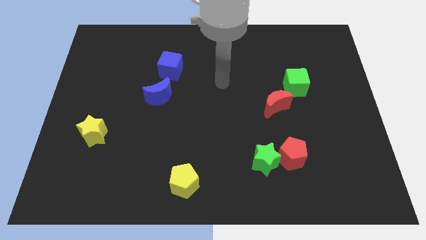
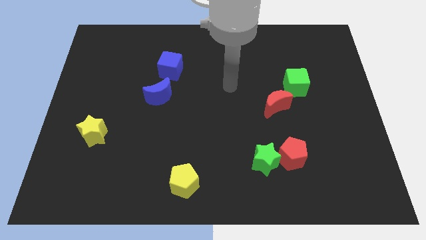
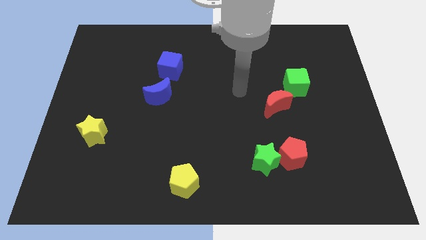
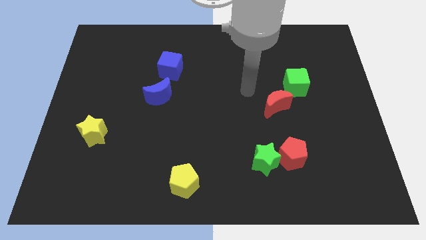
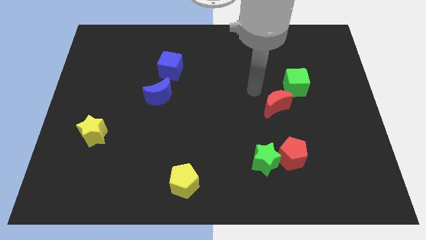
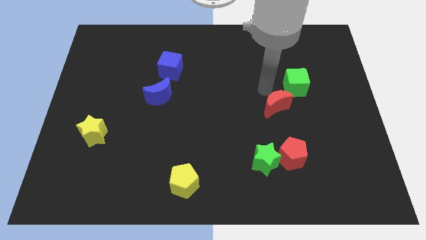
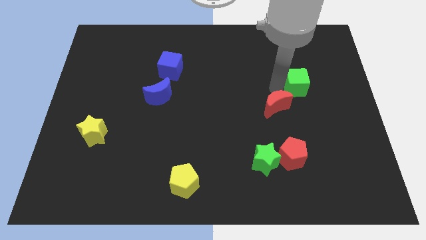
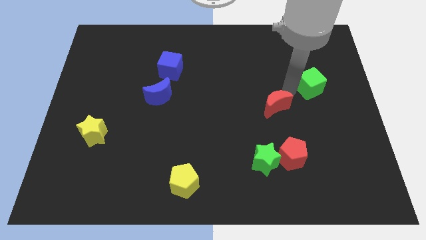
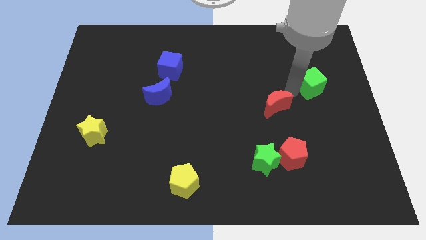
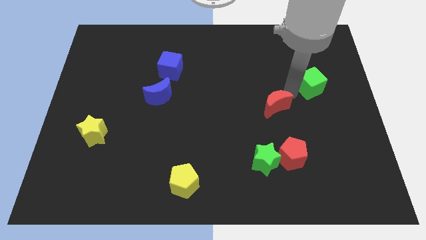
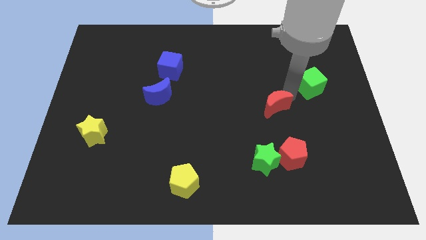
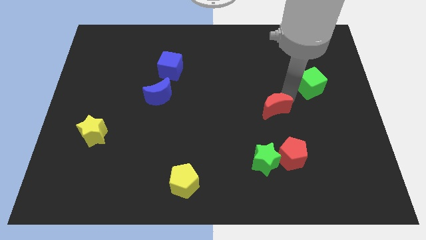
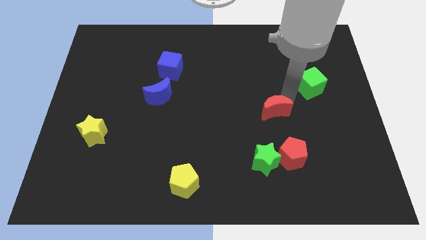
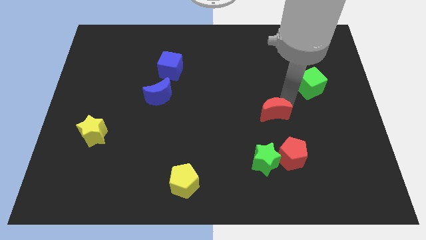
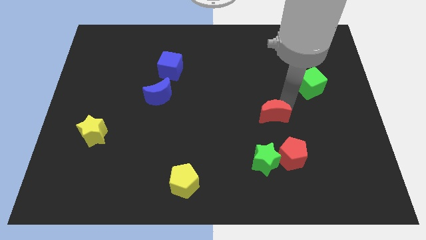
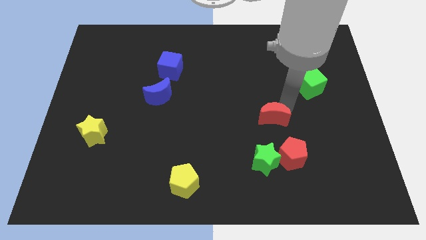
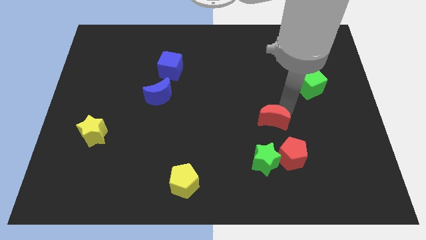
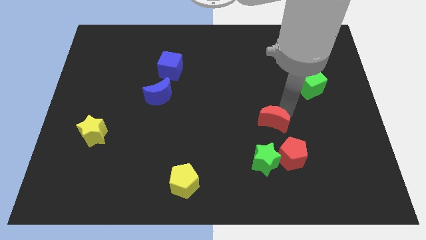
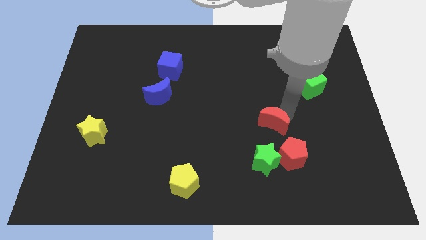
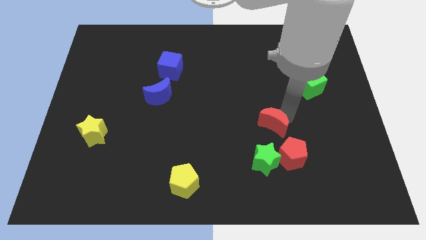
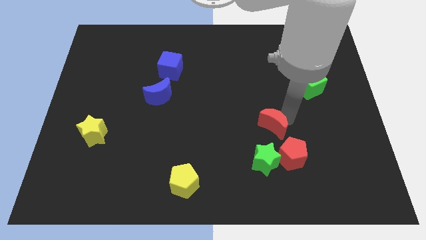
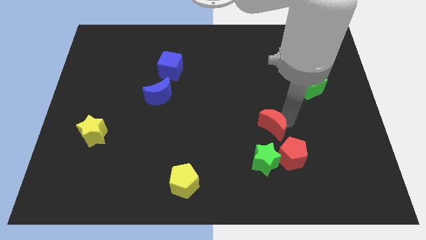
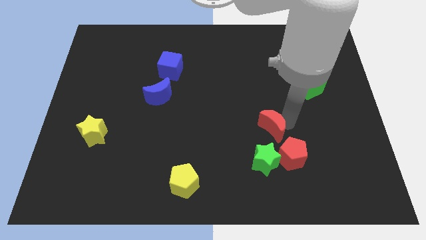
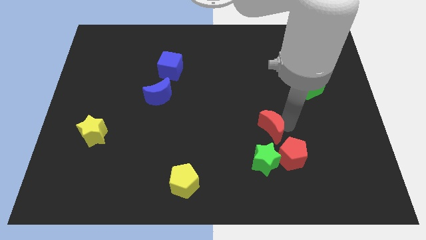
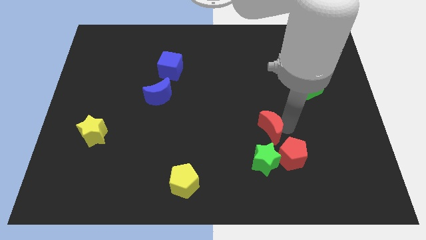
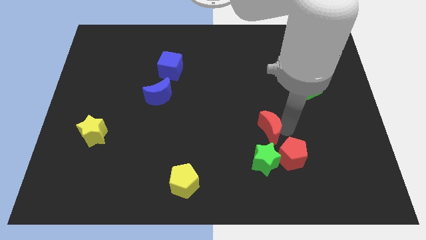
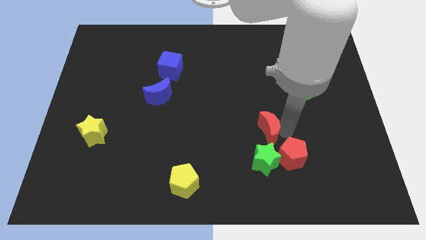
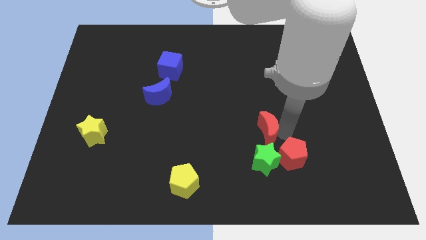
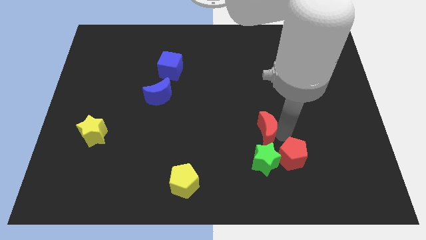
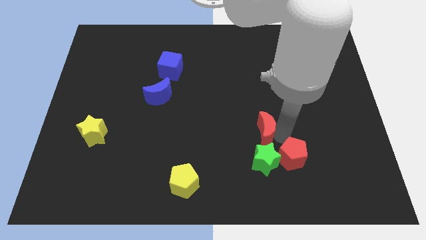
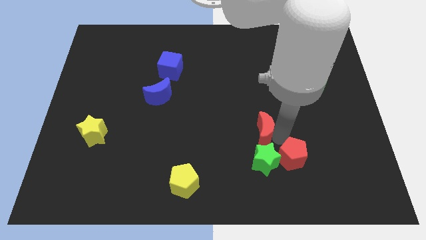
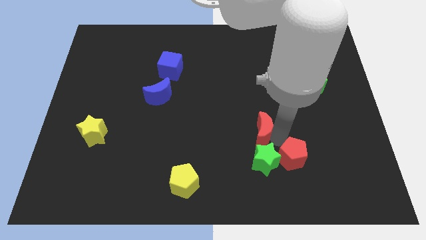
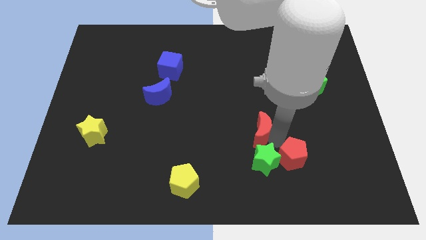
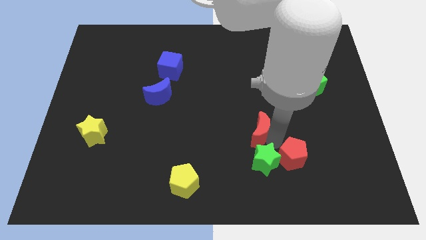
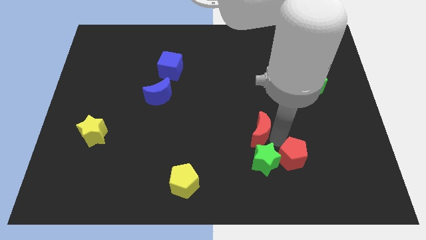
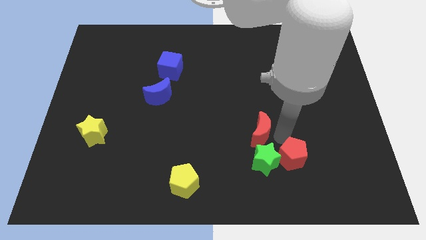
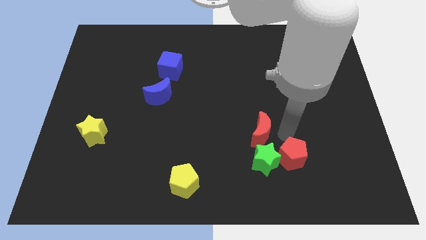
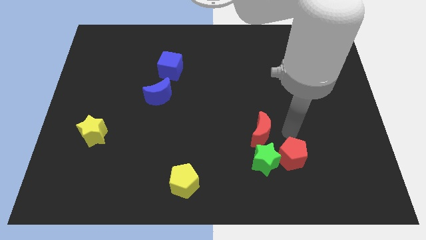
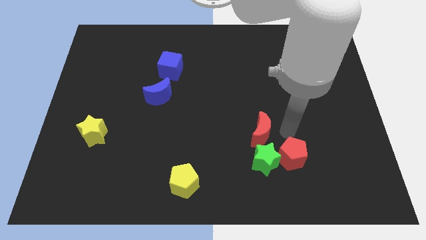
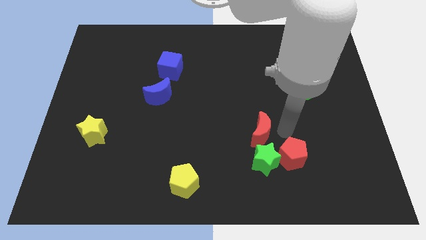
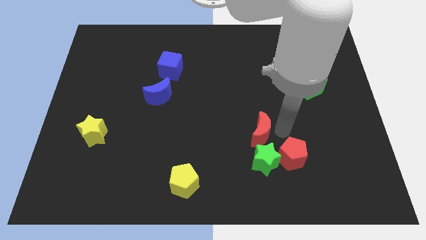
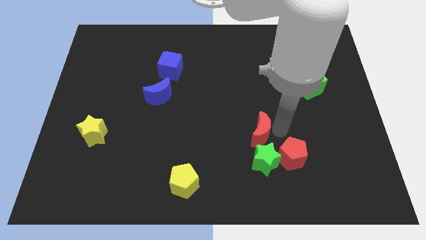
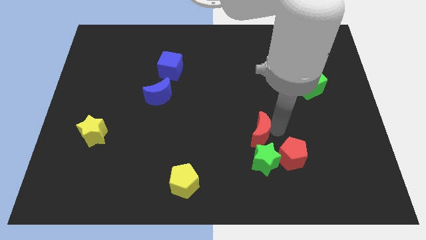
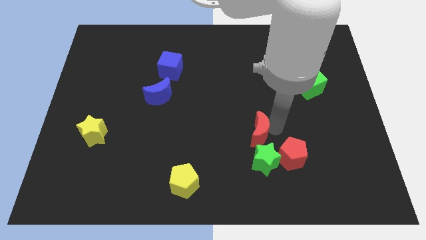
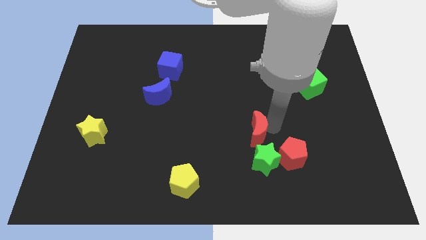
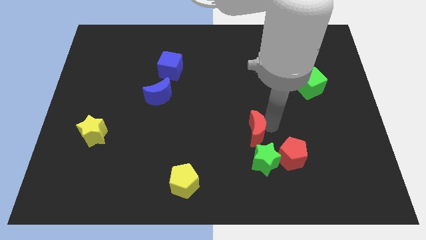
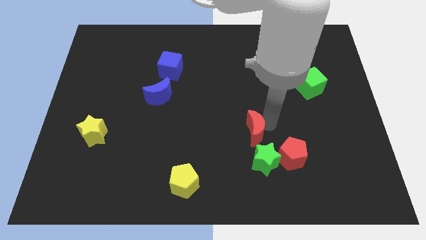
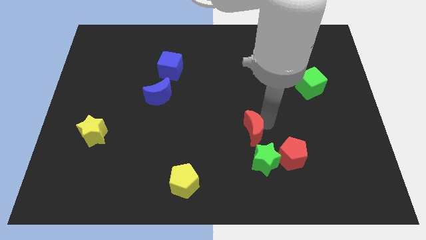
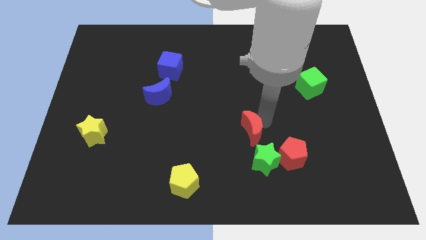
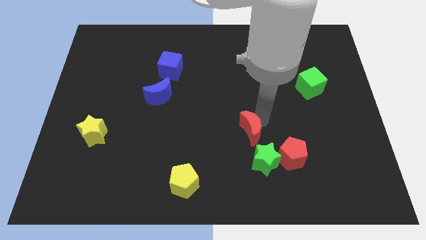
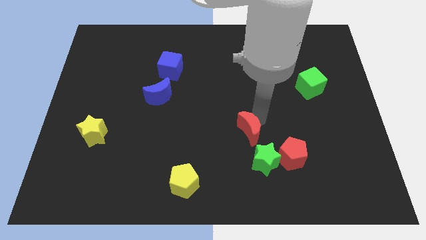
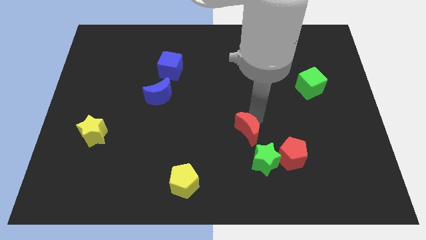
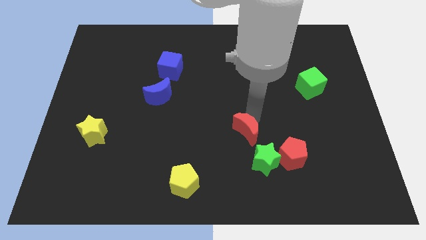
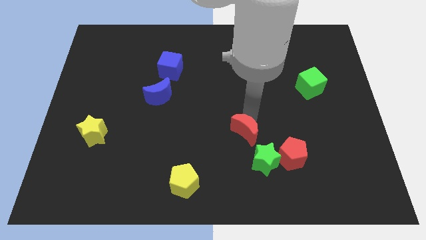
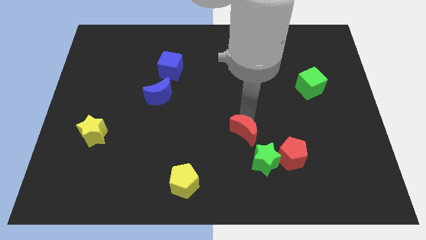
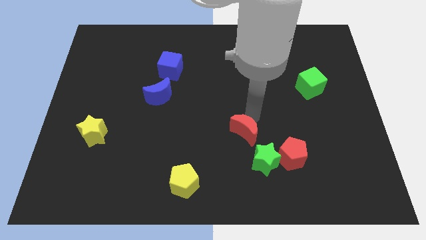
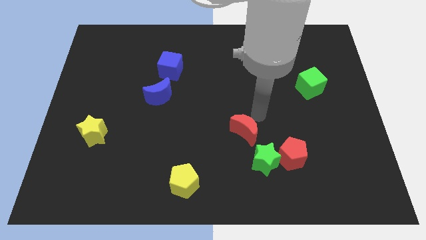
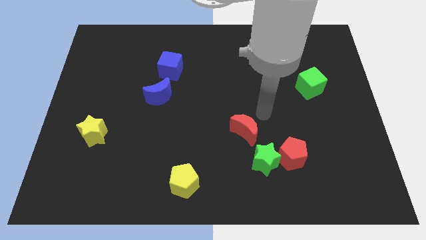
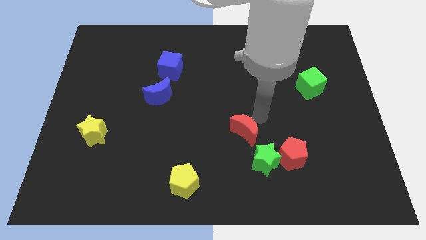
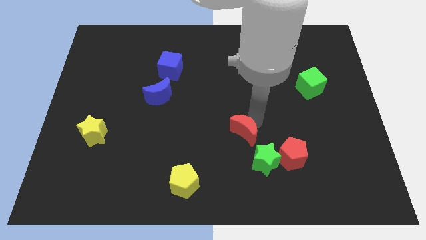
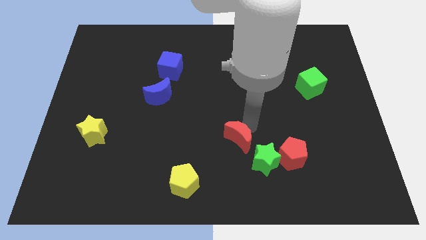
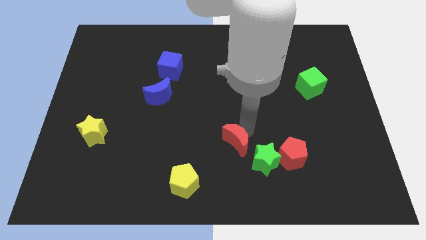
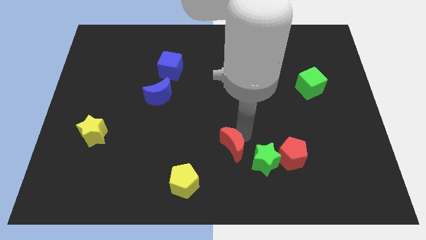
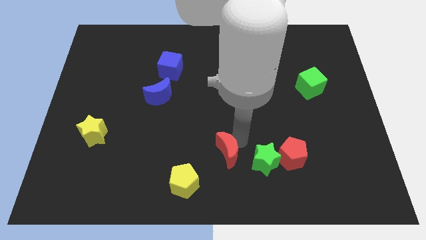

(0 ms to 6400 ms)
move the red moon to the top right of the yellow pentagon

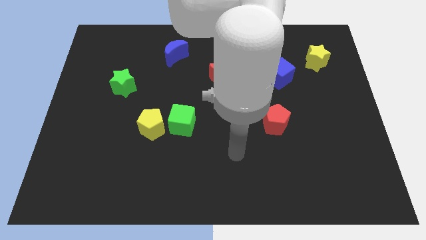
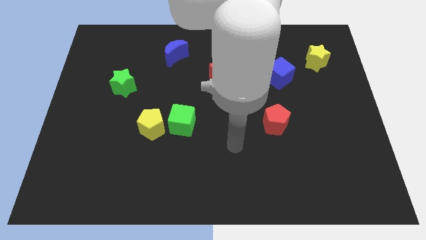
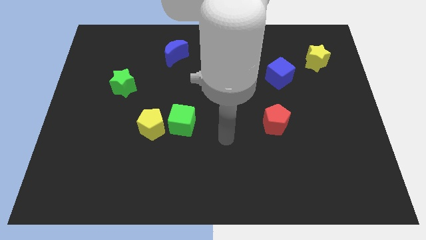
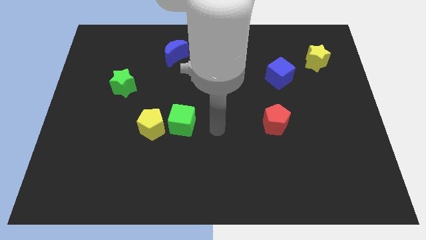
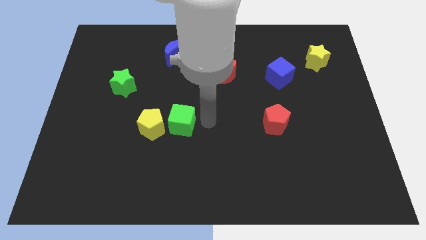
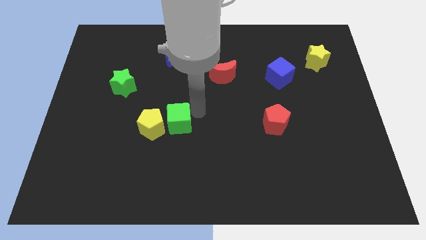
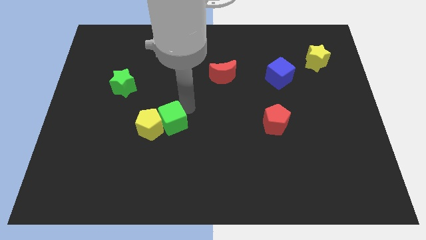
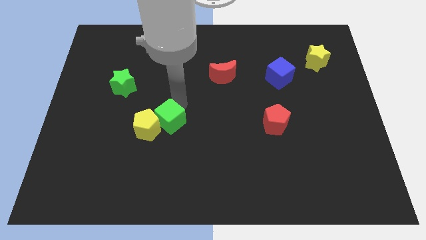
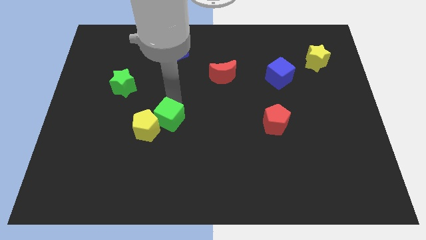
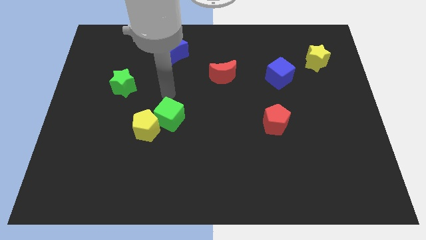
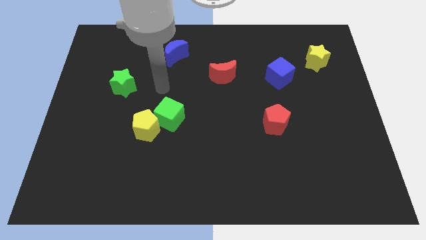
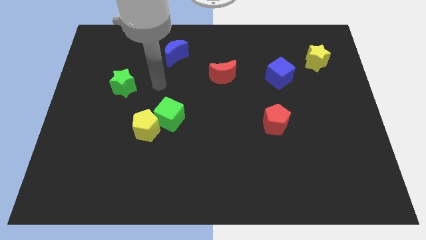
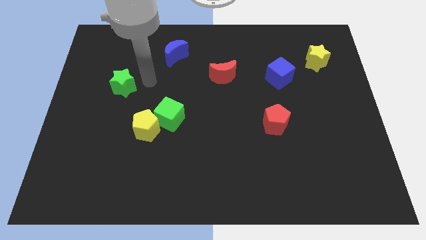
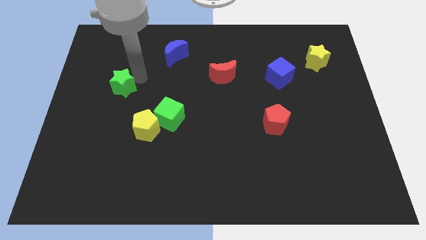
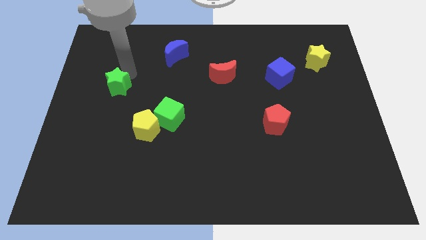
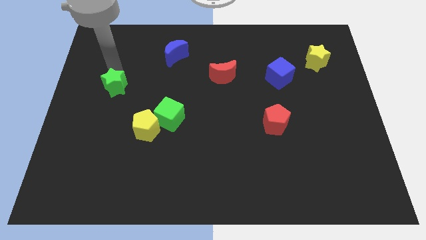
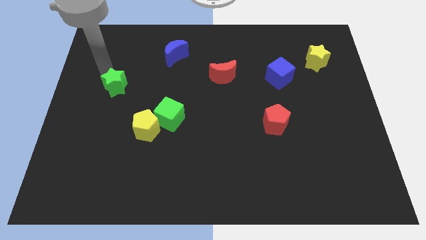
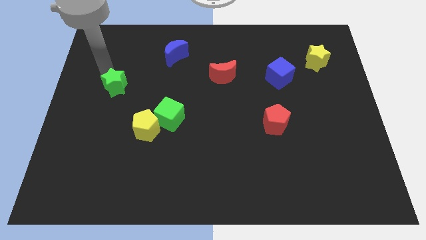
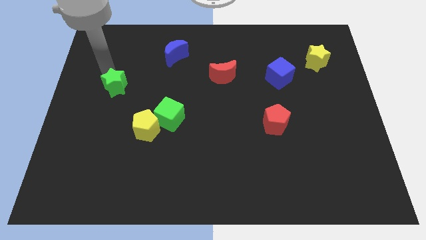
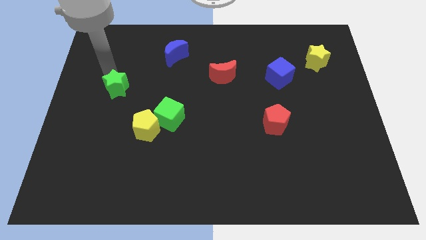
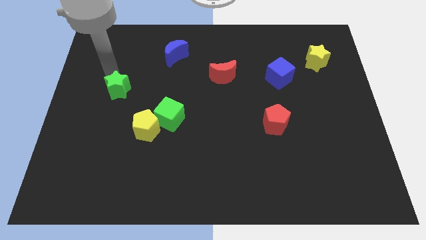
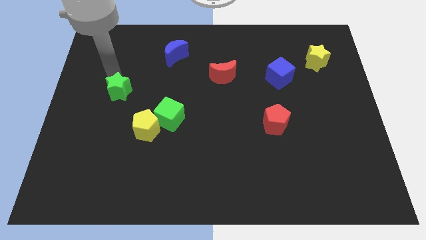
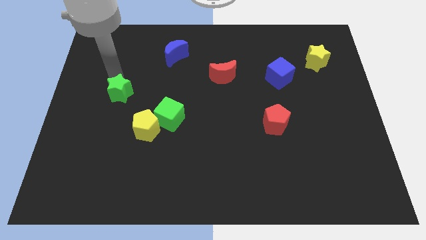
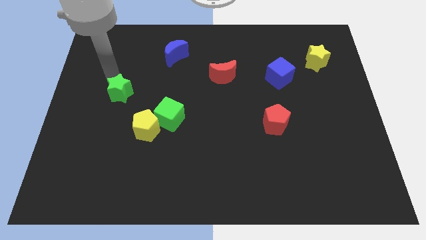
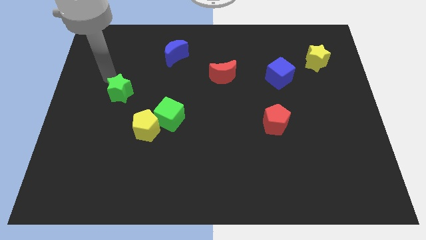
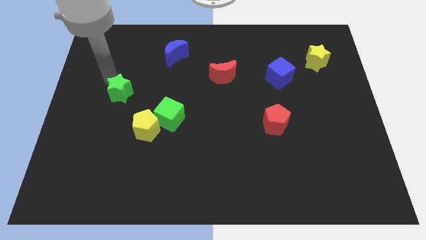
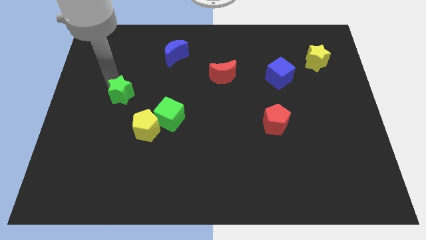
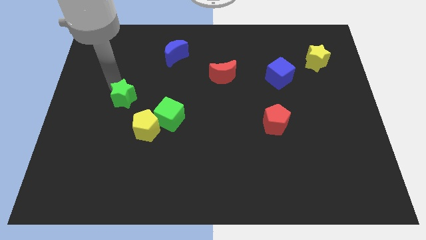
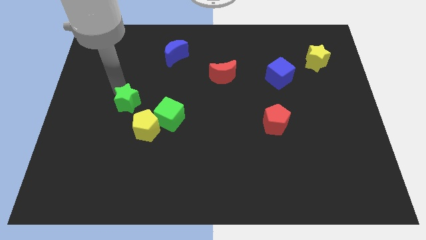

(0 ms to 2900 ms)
slide the green star left of the green cube
